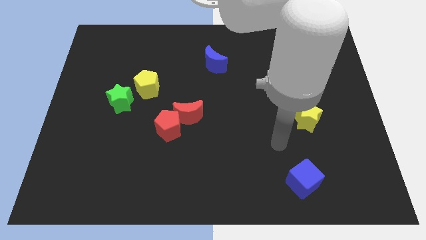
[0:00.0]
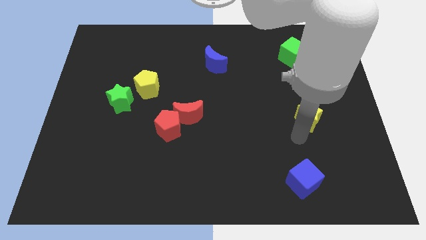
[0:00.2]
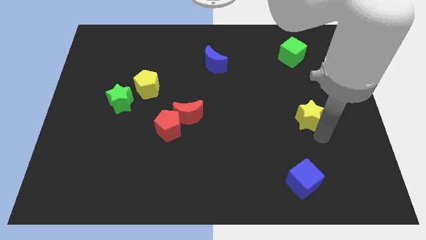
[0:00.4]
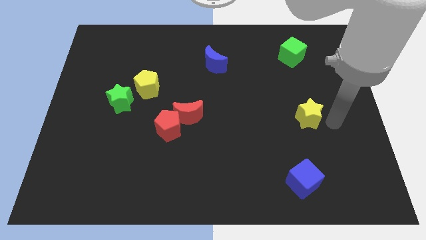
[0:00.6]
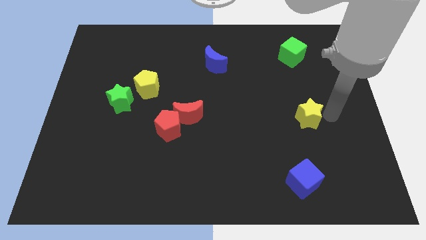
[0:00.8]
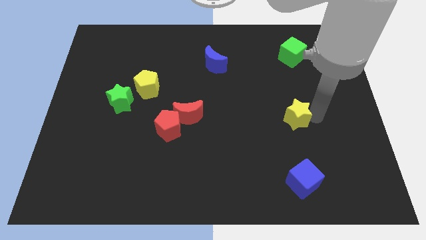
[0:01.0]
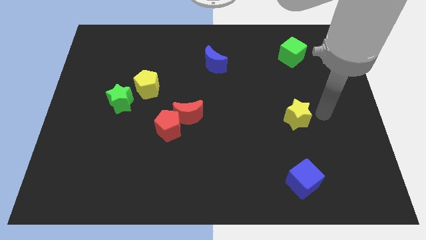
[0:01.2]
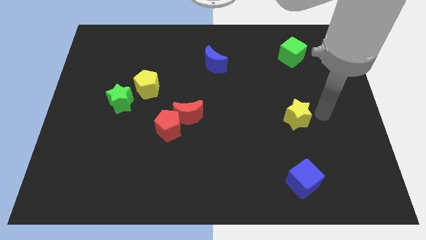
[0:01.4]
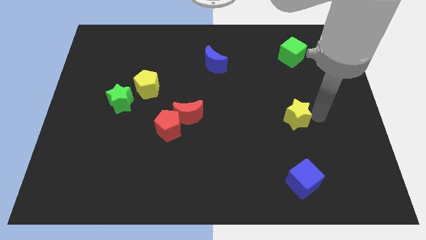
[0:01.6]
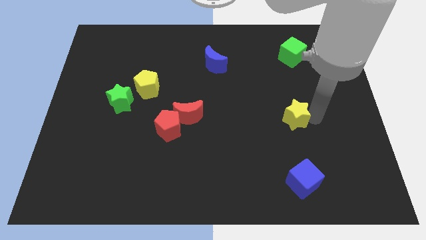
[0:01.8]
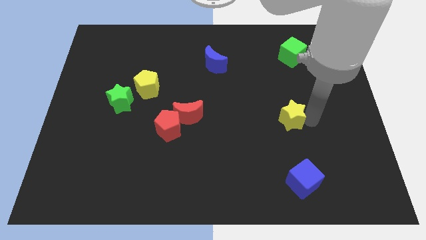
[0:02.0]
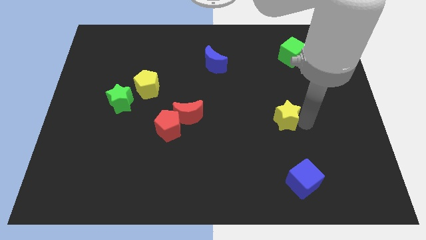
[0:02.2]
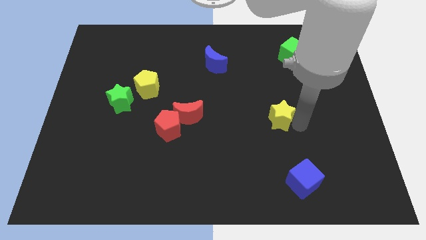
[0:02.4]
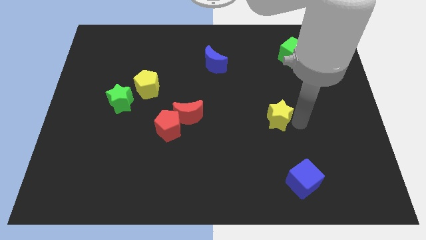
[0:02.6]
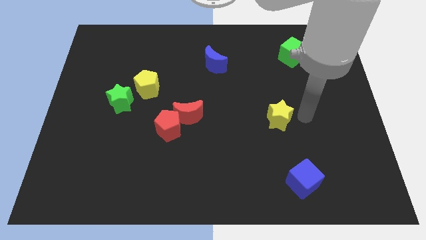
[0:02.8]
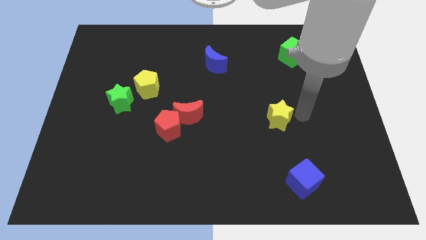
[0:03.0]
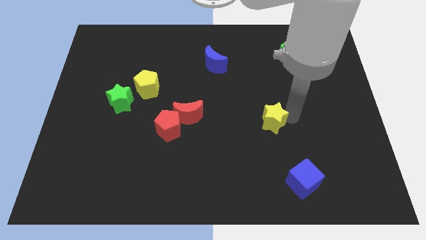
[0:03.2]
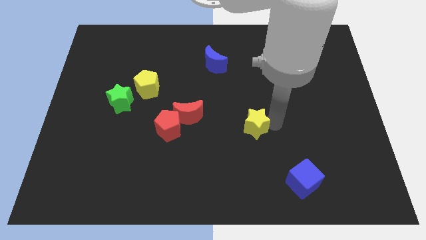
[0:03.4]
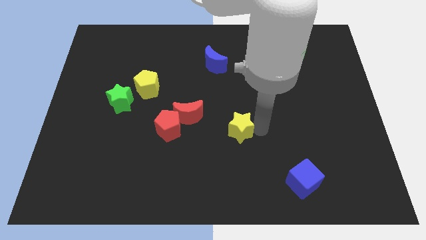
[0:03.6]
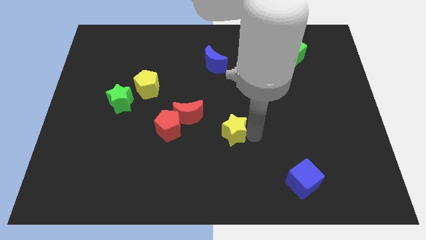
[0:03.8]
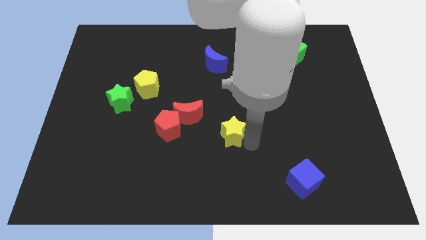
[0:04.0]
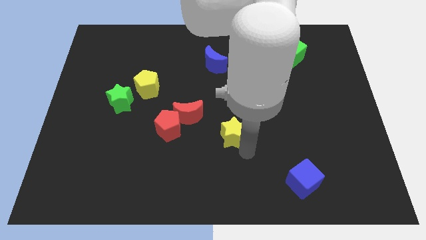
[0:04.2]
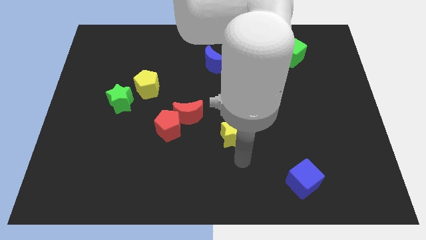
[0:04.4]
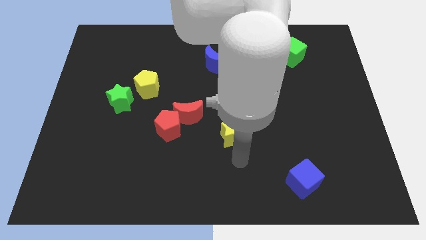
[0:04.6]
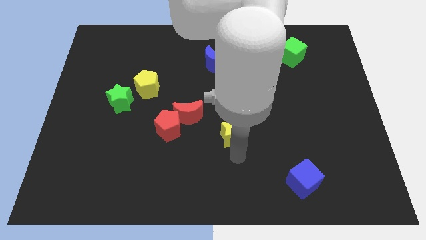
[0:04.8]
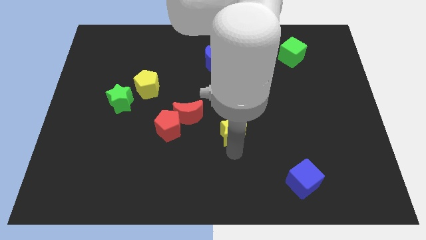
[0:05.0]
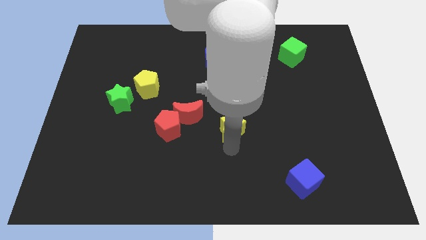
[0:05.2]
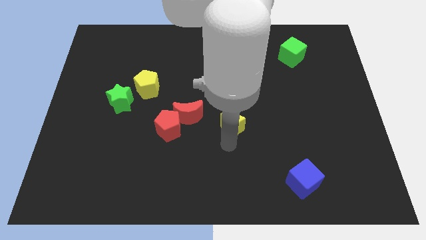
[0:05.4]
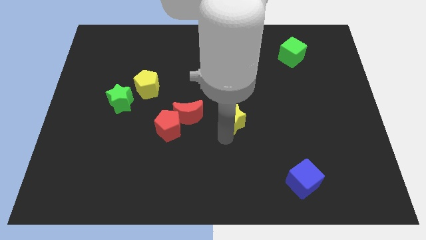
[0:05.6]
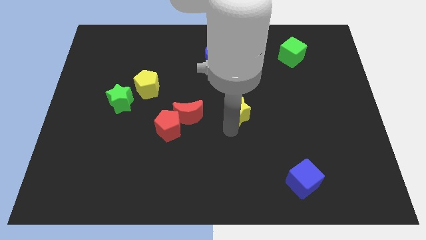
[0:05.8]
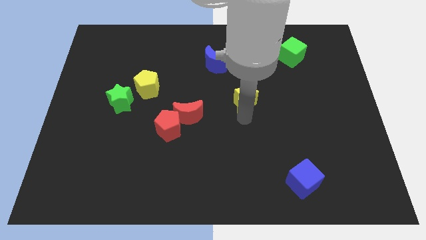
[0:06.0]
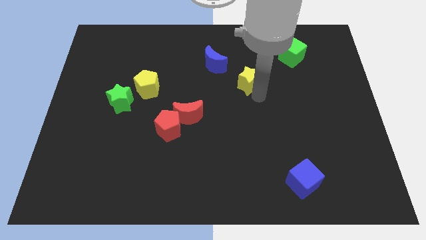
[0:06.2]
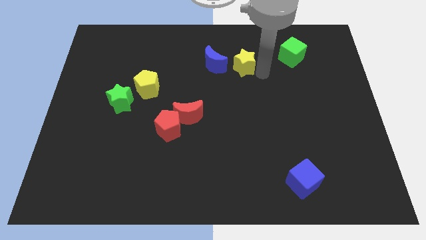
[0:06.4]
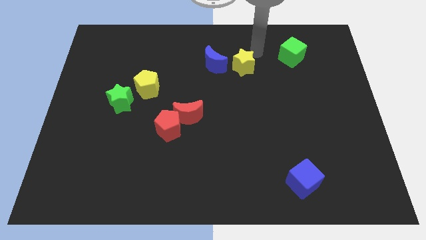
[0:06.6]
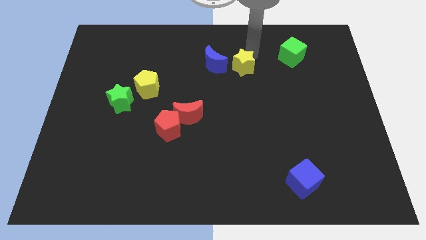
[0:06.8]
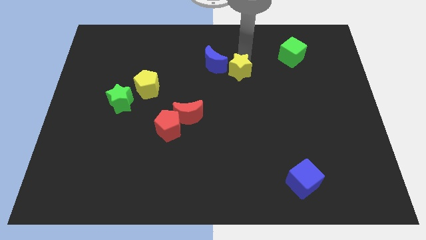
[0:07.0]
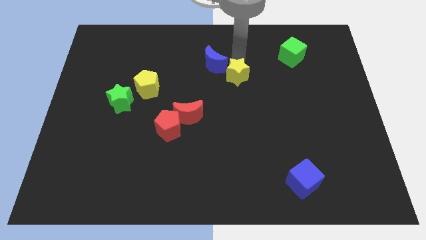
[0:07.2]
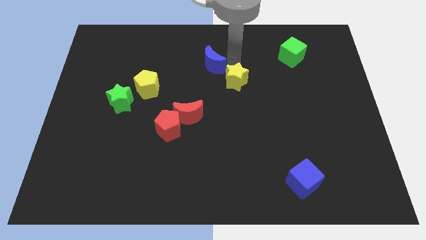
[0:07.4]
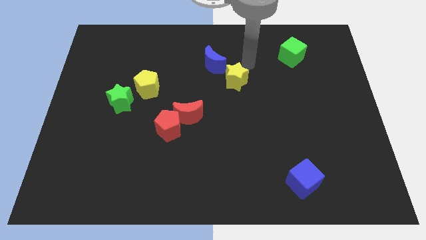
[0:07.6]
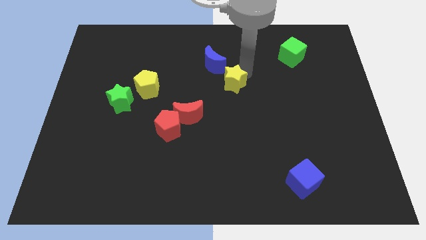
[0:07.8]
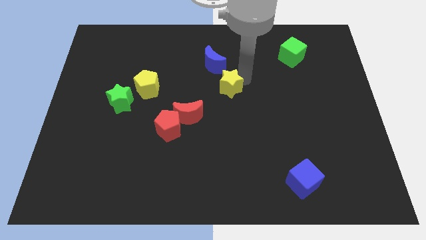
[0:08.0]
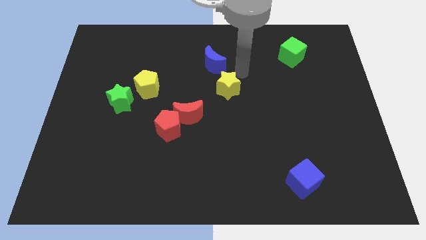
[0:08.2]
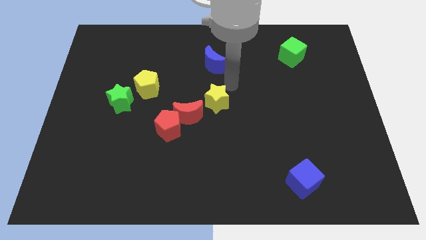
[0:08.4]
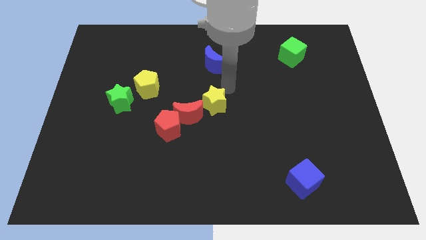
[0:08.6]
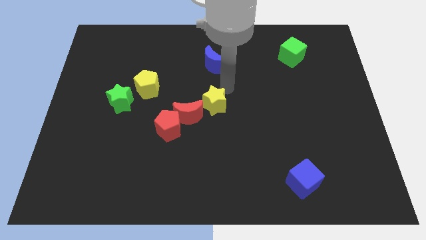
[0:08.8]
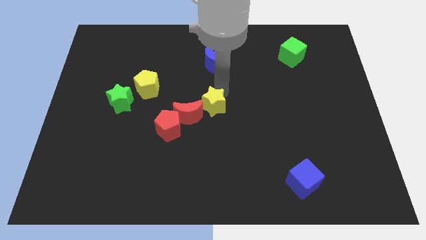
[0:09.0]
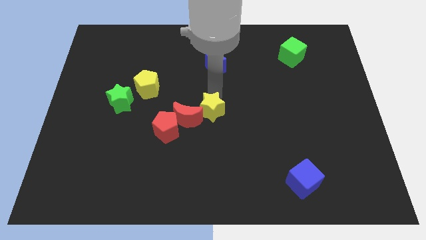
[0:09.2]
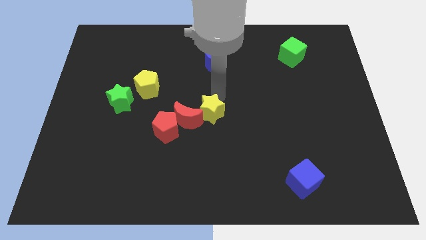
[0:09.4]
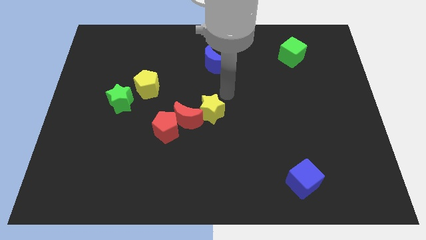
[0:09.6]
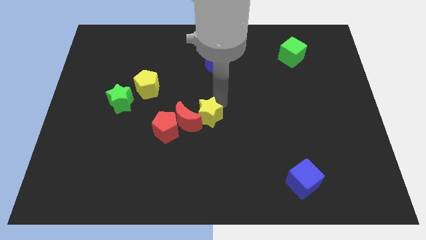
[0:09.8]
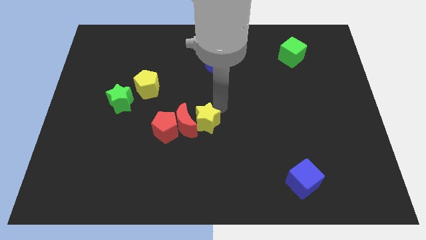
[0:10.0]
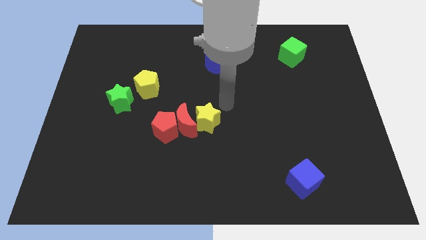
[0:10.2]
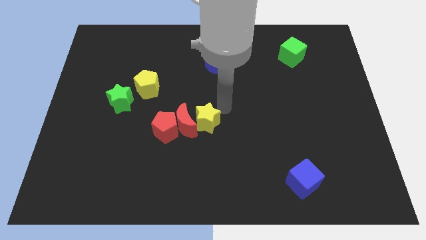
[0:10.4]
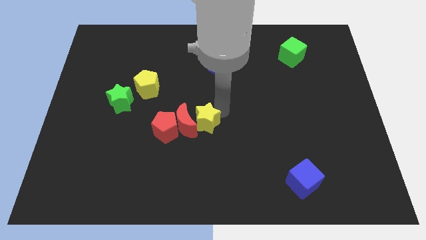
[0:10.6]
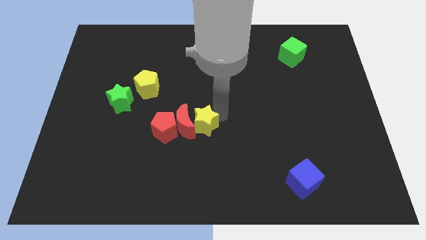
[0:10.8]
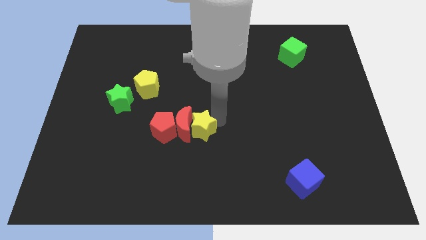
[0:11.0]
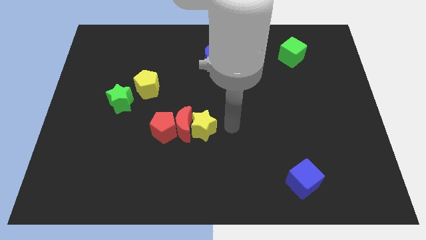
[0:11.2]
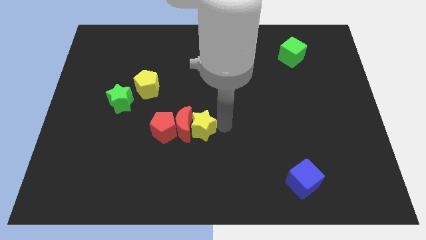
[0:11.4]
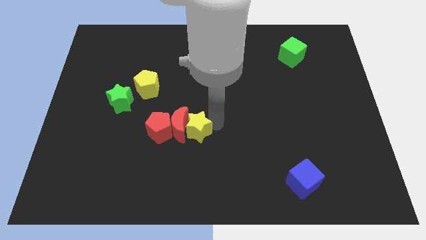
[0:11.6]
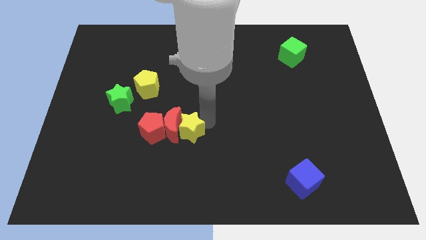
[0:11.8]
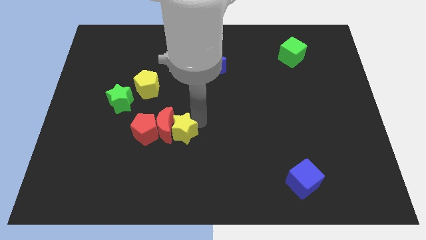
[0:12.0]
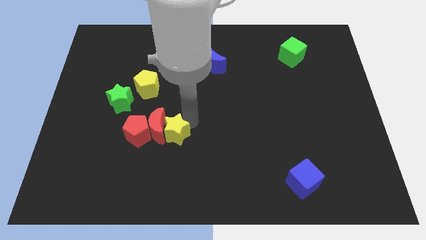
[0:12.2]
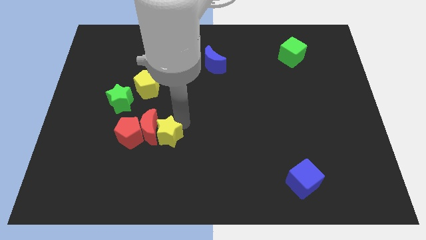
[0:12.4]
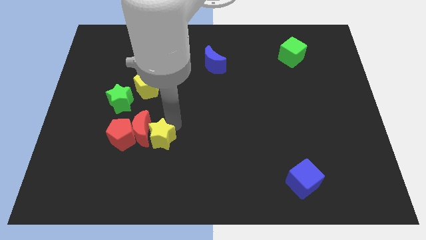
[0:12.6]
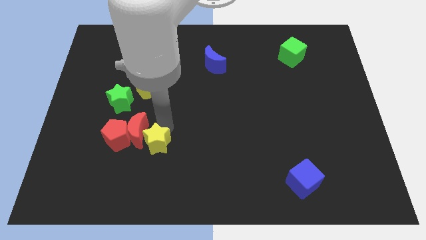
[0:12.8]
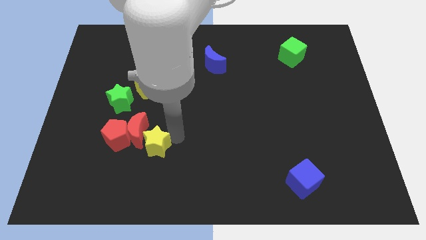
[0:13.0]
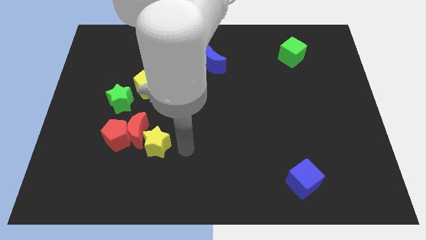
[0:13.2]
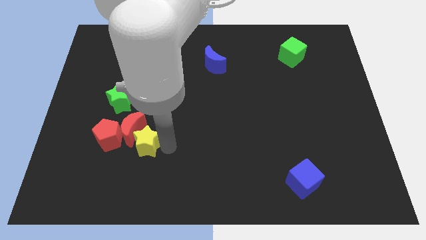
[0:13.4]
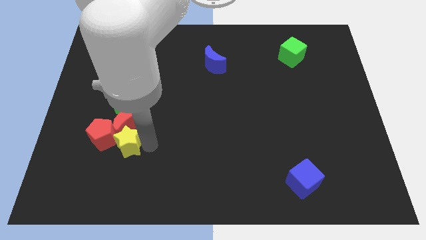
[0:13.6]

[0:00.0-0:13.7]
put the yellow star next to the red pentagon
